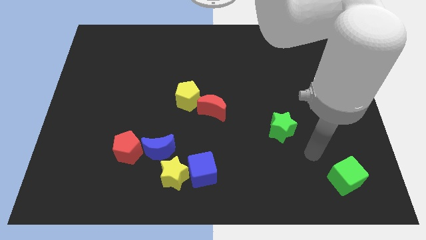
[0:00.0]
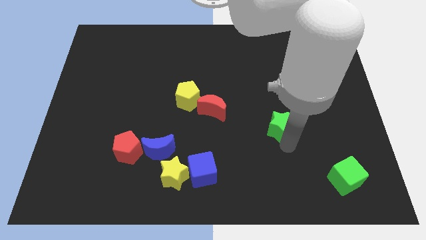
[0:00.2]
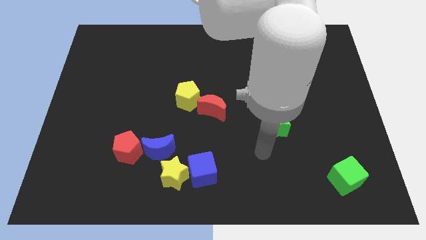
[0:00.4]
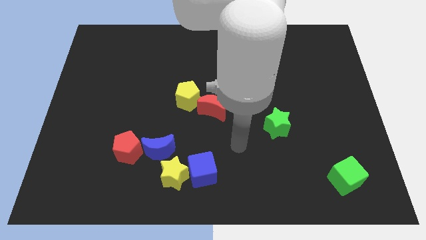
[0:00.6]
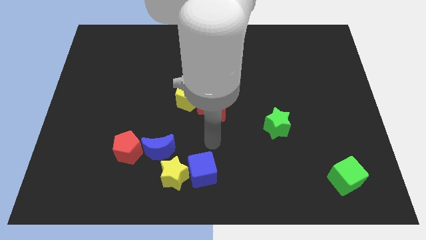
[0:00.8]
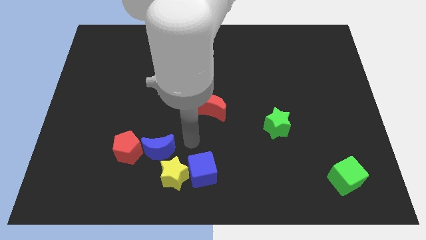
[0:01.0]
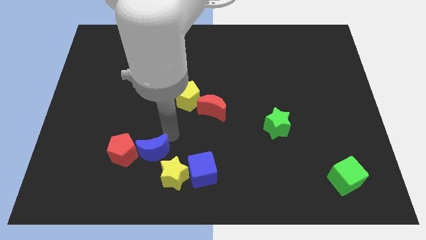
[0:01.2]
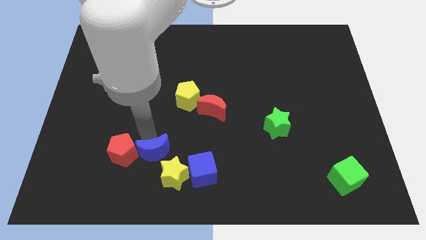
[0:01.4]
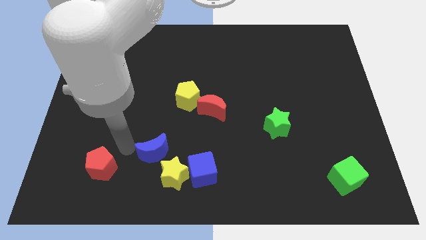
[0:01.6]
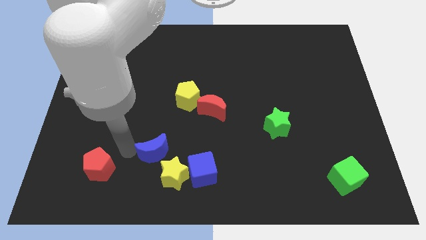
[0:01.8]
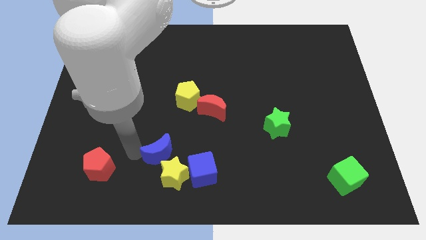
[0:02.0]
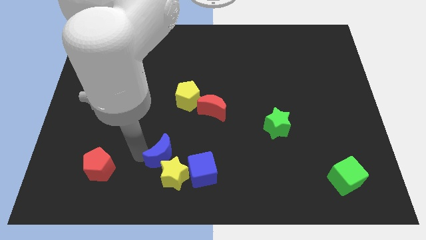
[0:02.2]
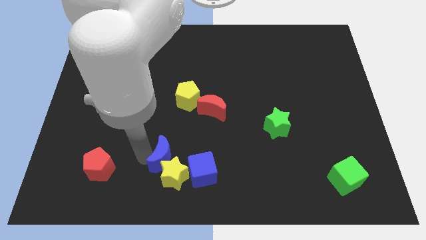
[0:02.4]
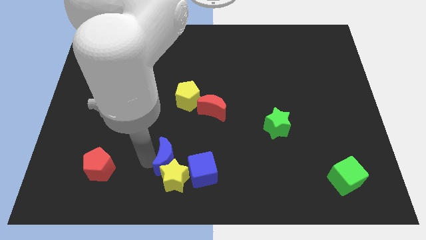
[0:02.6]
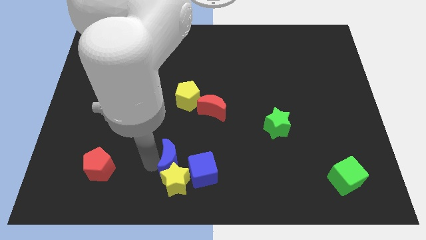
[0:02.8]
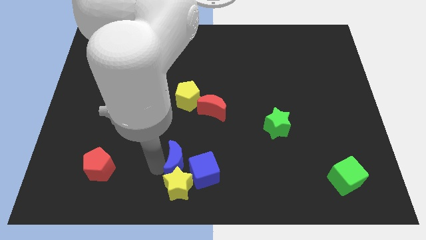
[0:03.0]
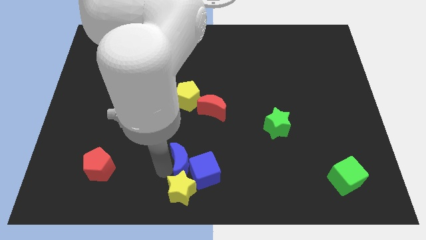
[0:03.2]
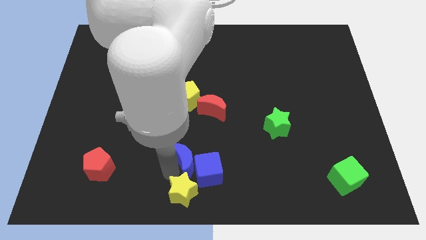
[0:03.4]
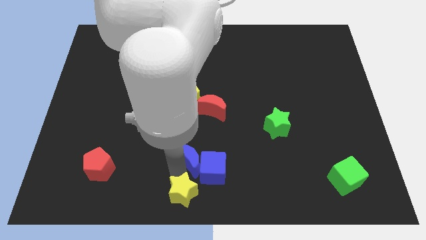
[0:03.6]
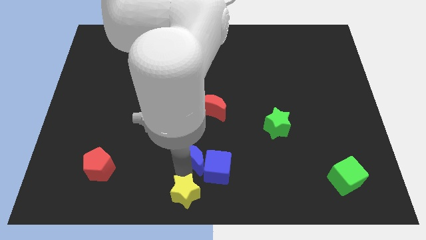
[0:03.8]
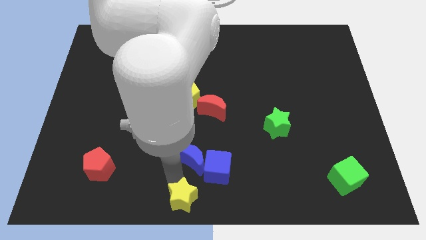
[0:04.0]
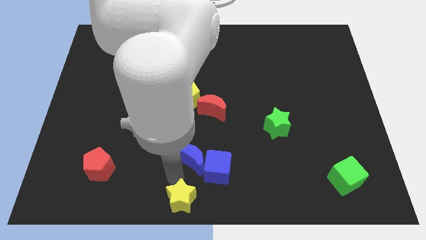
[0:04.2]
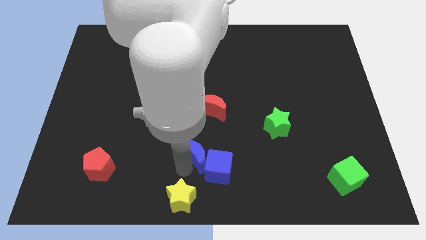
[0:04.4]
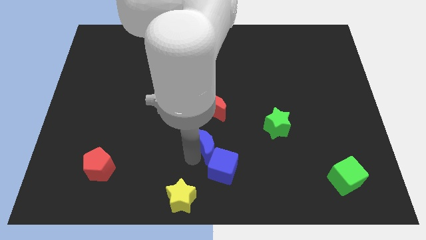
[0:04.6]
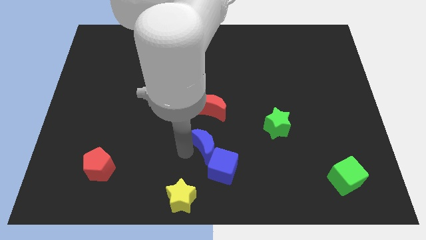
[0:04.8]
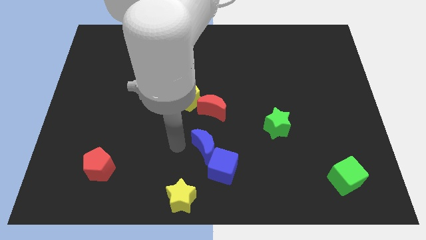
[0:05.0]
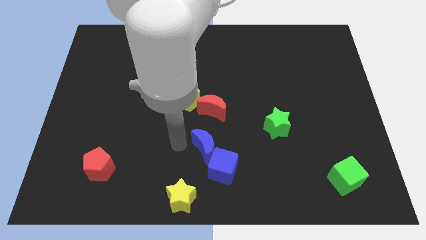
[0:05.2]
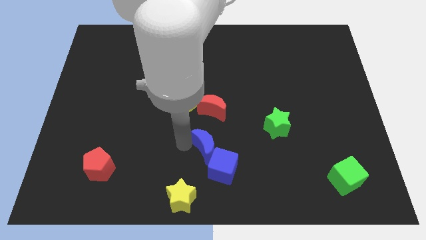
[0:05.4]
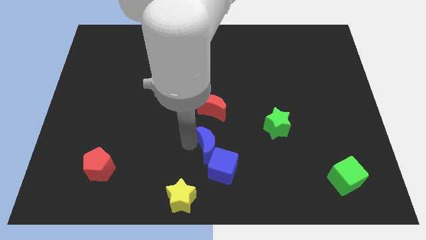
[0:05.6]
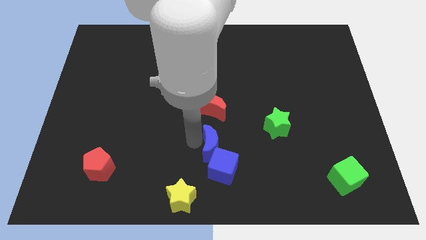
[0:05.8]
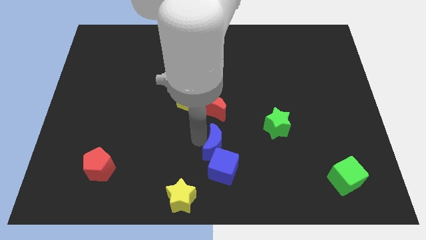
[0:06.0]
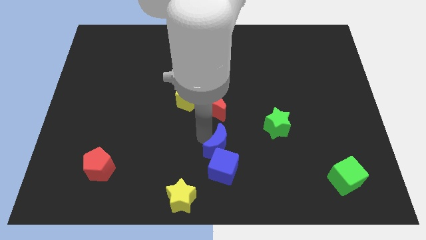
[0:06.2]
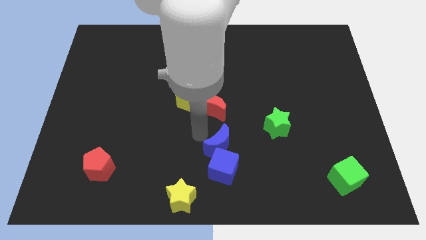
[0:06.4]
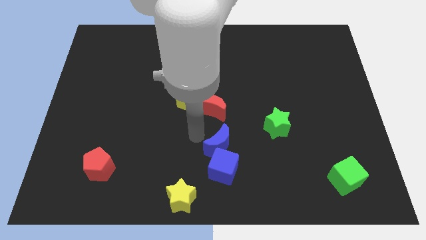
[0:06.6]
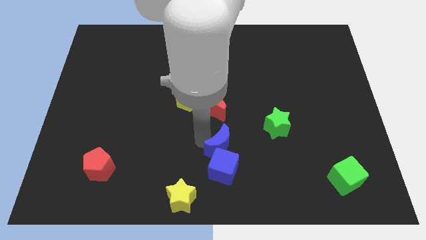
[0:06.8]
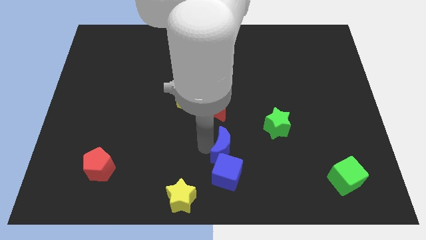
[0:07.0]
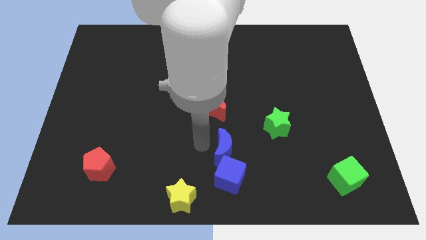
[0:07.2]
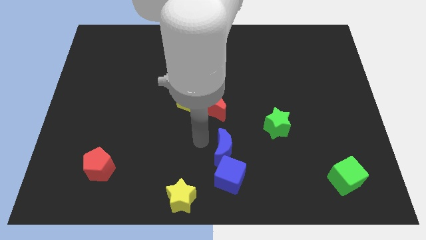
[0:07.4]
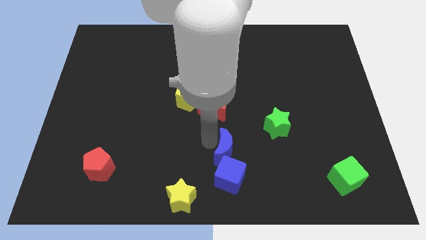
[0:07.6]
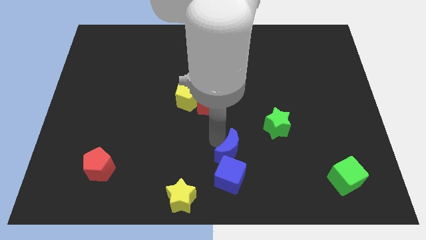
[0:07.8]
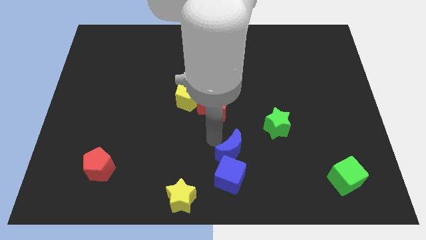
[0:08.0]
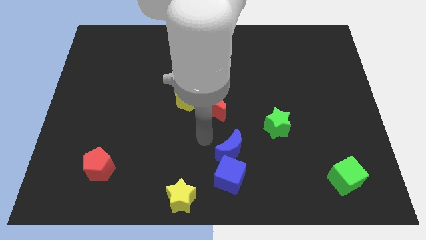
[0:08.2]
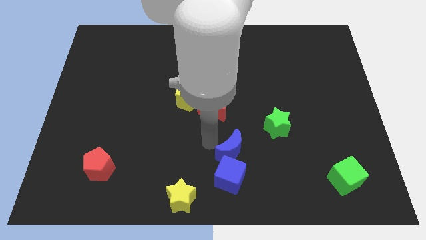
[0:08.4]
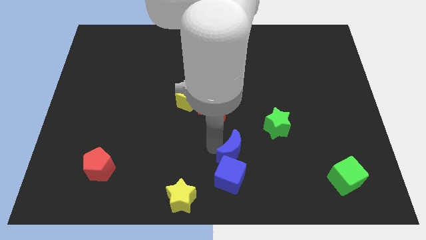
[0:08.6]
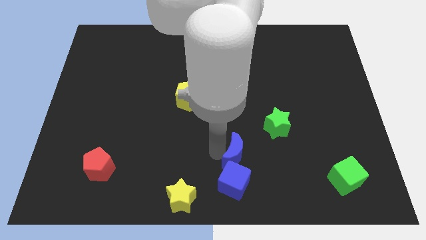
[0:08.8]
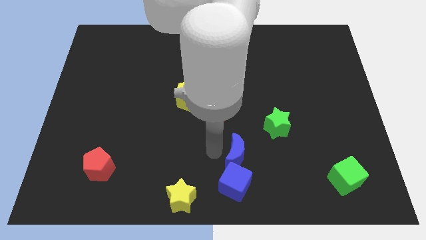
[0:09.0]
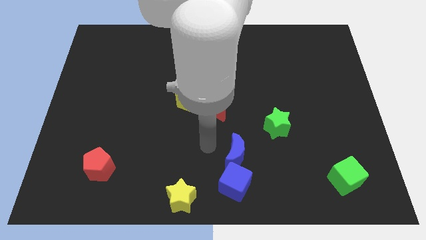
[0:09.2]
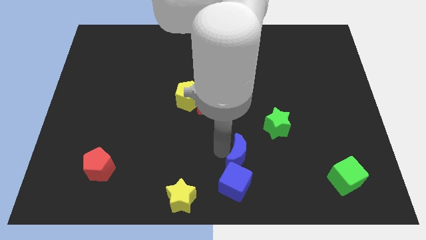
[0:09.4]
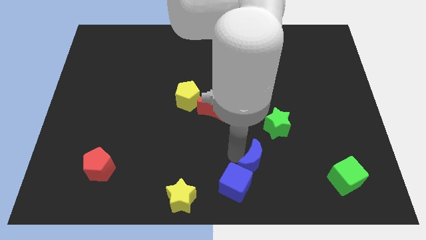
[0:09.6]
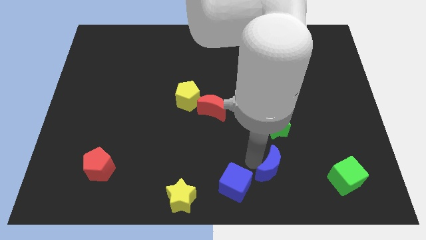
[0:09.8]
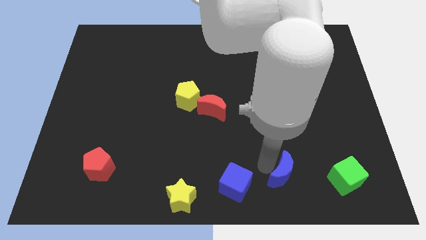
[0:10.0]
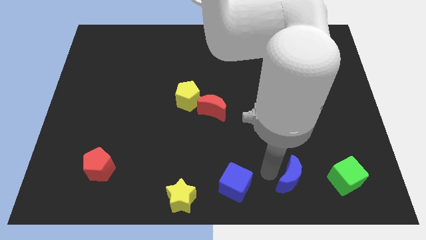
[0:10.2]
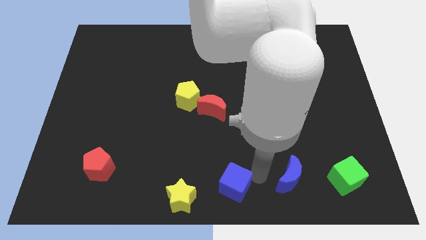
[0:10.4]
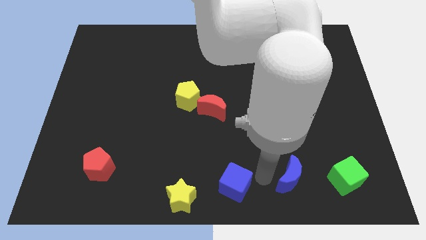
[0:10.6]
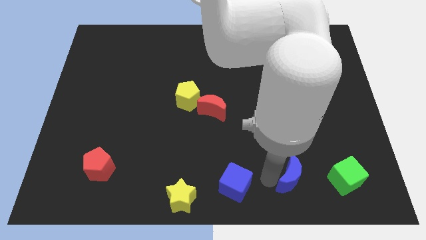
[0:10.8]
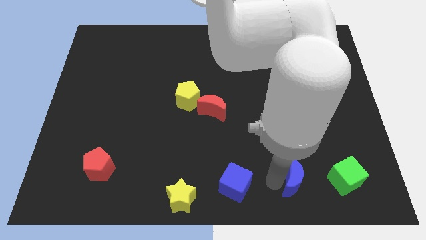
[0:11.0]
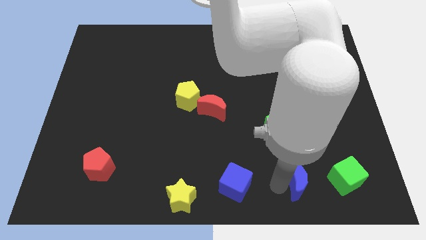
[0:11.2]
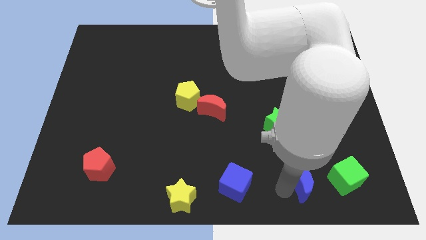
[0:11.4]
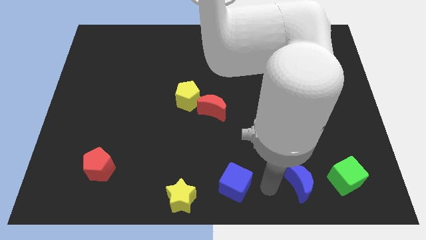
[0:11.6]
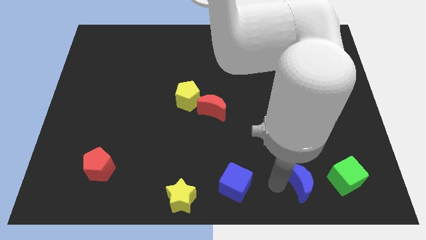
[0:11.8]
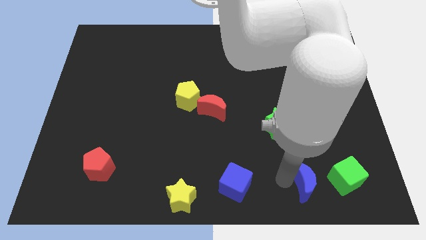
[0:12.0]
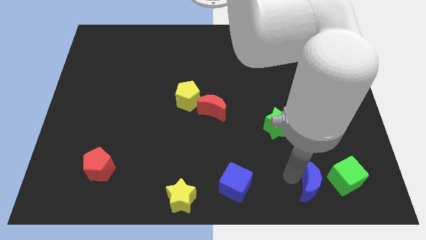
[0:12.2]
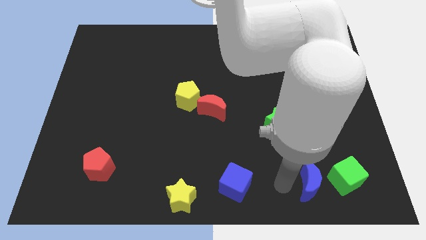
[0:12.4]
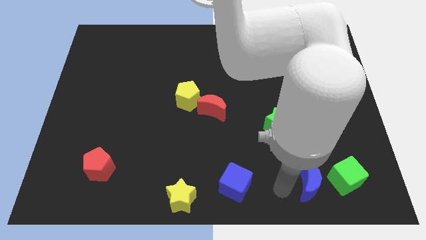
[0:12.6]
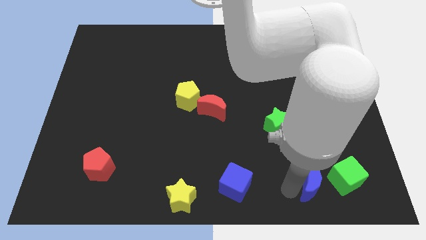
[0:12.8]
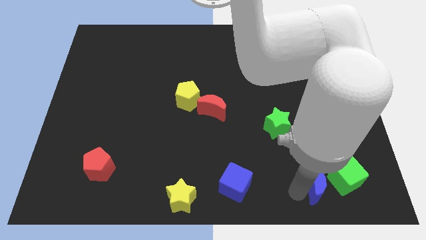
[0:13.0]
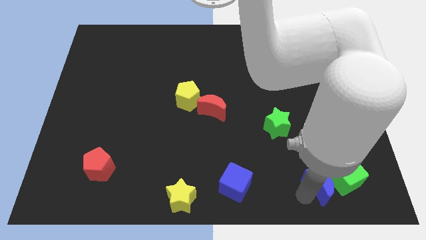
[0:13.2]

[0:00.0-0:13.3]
slide the blue moon next to the green cube

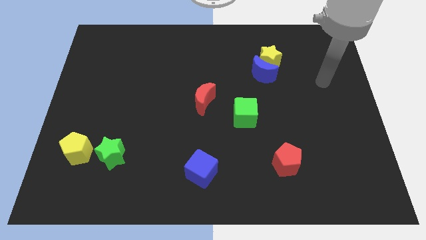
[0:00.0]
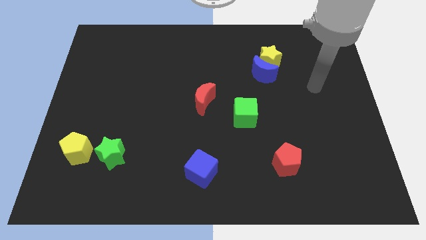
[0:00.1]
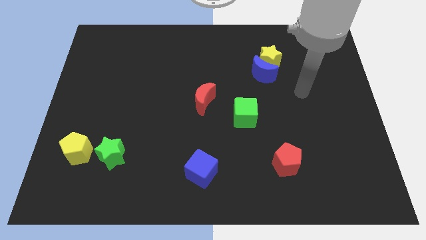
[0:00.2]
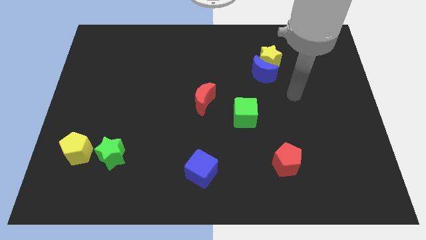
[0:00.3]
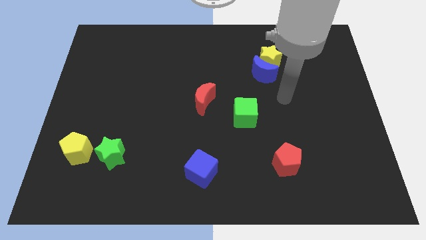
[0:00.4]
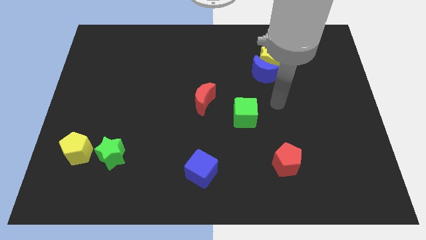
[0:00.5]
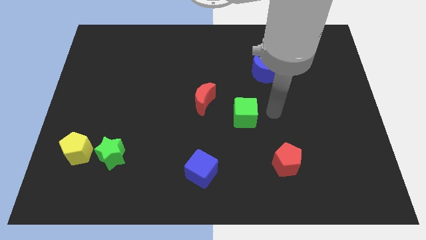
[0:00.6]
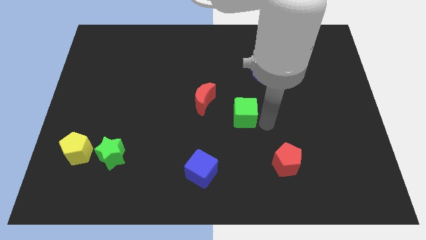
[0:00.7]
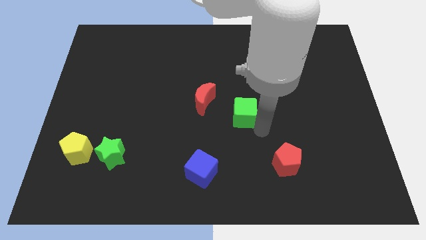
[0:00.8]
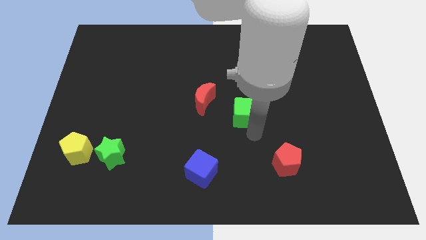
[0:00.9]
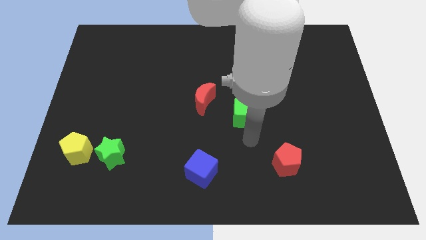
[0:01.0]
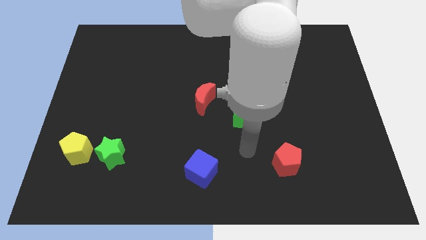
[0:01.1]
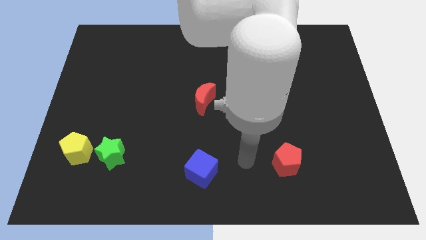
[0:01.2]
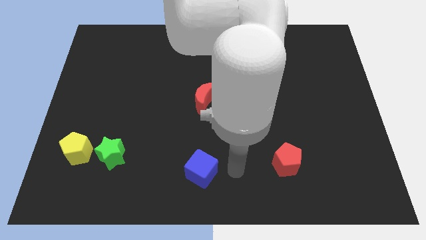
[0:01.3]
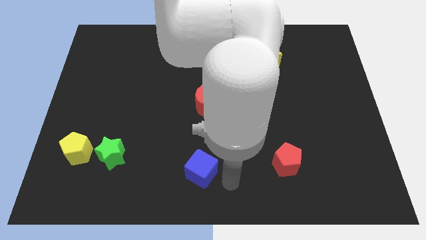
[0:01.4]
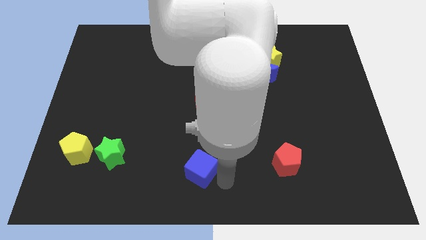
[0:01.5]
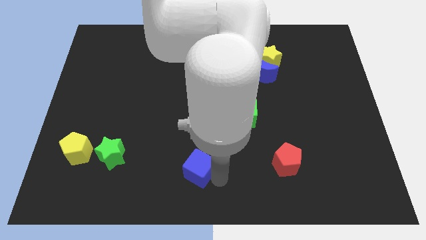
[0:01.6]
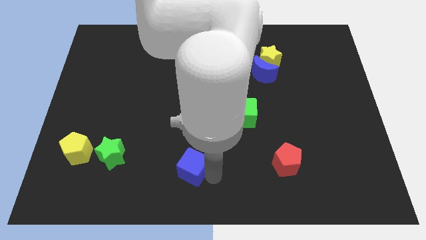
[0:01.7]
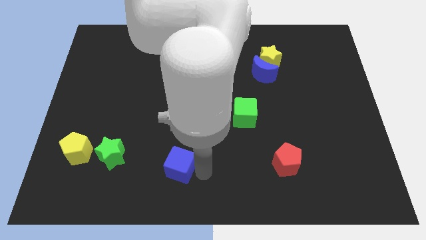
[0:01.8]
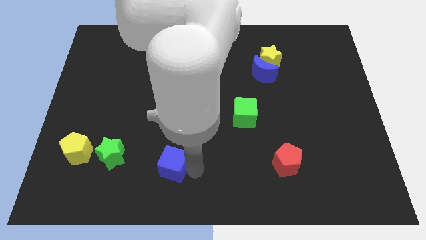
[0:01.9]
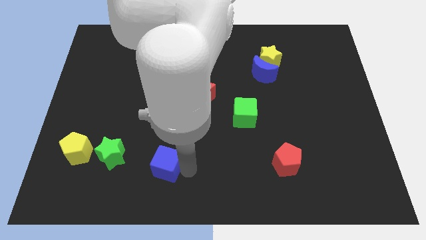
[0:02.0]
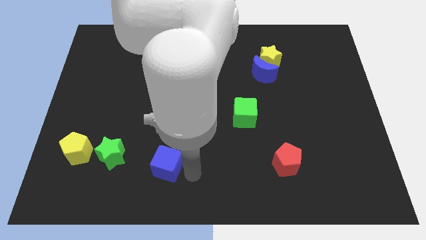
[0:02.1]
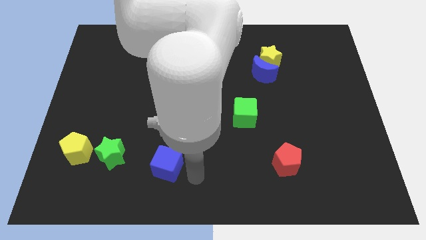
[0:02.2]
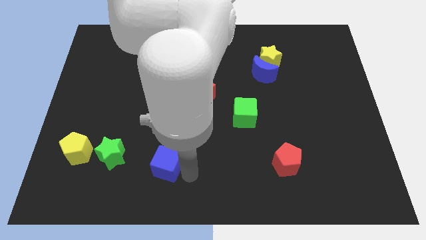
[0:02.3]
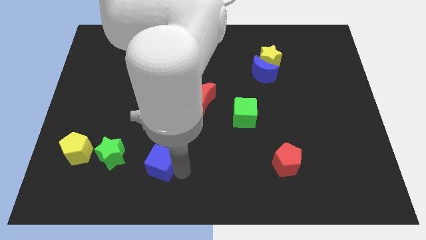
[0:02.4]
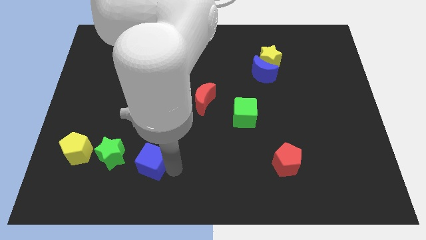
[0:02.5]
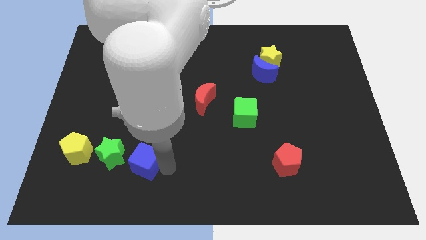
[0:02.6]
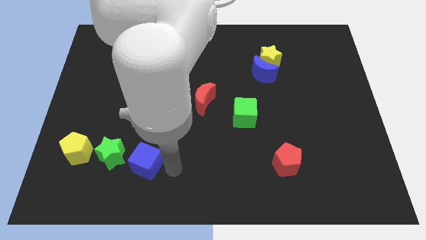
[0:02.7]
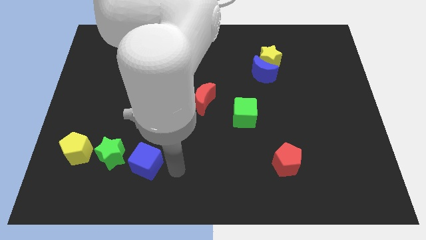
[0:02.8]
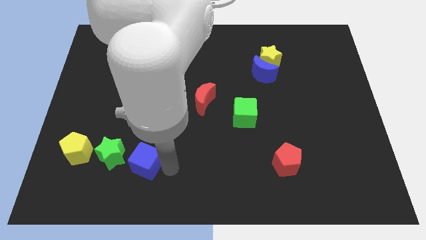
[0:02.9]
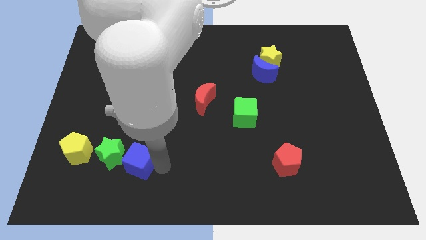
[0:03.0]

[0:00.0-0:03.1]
push the blue cube next to the green star
